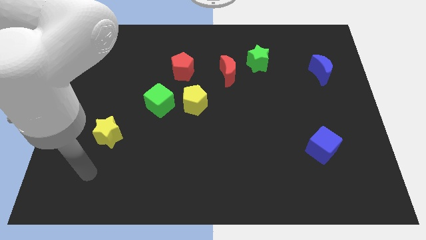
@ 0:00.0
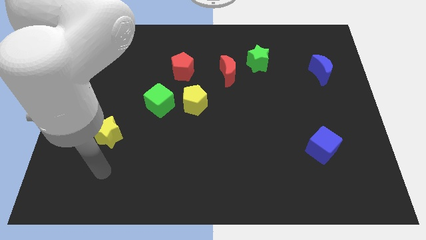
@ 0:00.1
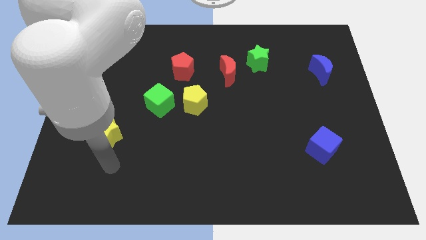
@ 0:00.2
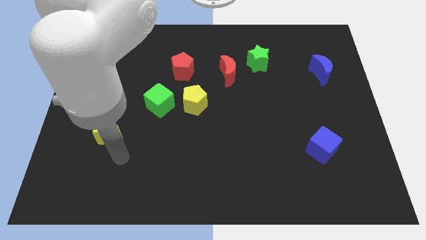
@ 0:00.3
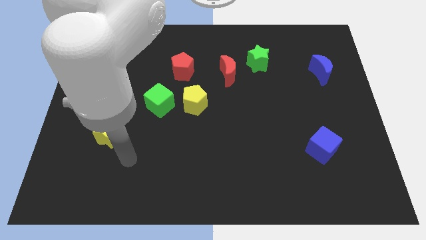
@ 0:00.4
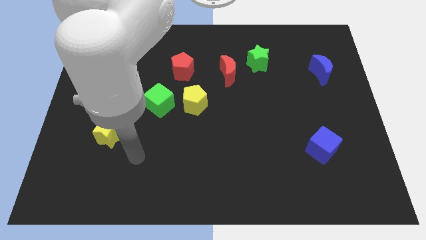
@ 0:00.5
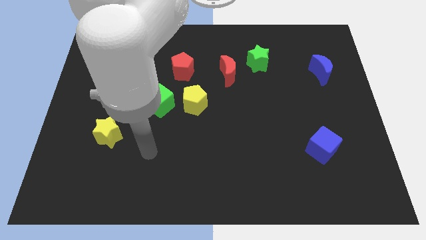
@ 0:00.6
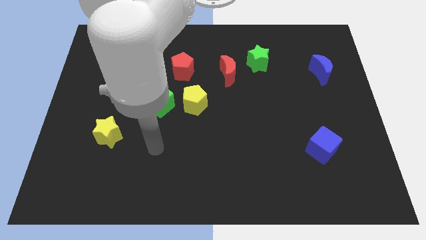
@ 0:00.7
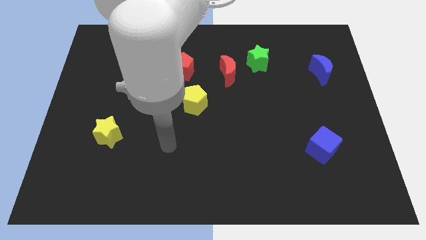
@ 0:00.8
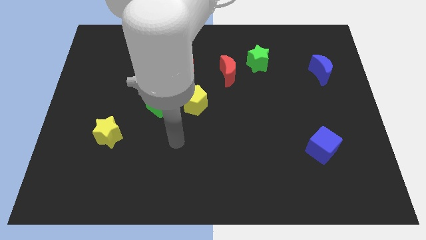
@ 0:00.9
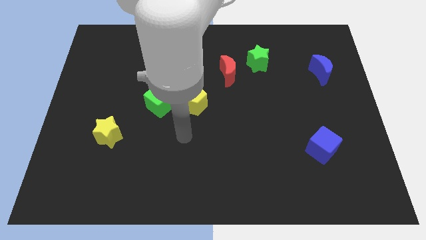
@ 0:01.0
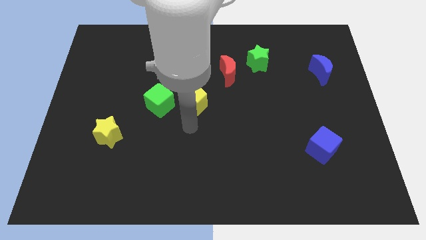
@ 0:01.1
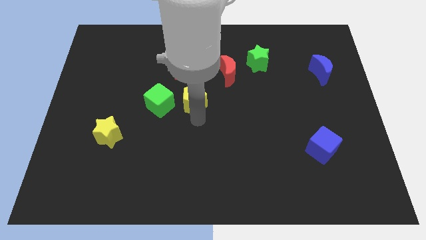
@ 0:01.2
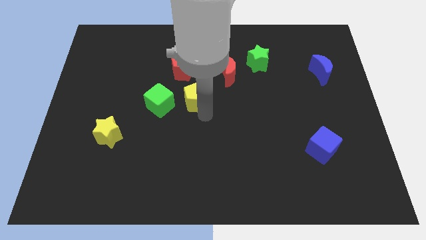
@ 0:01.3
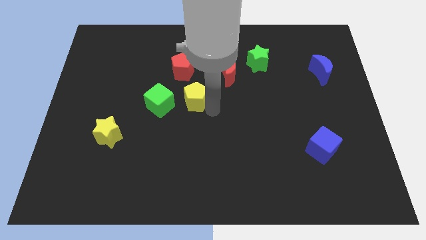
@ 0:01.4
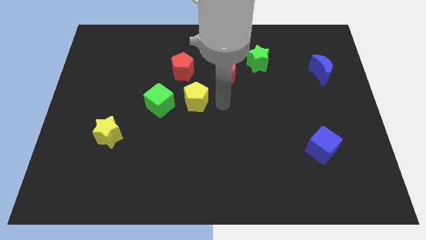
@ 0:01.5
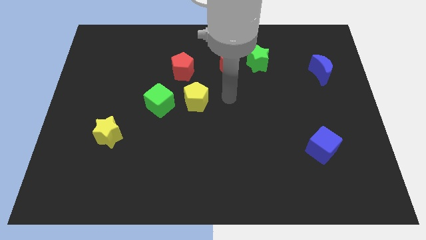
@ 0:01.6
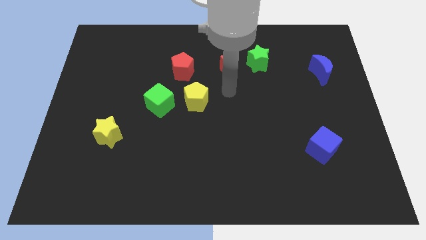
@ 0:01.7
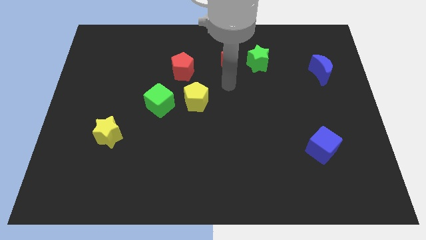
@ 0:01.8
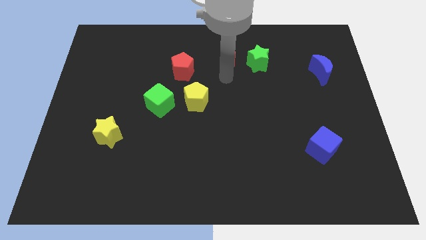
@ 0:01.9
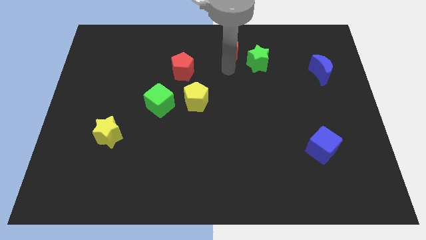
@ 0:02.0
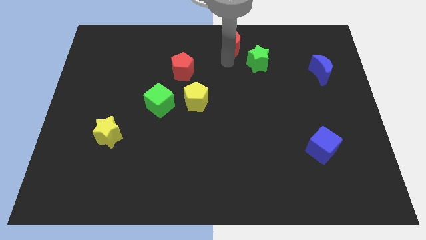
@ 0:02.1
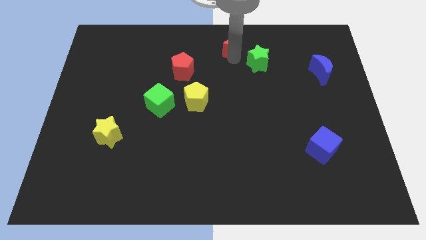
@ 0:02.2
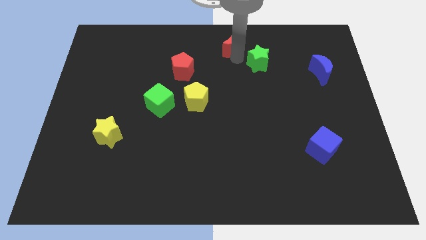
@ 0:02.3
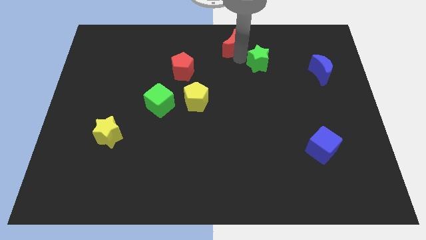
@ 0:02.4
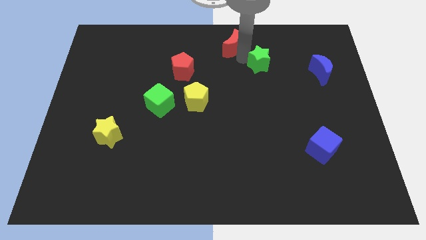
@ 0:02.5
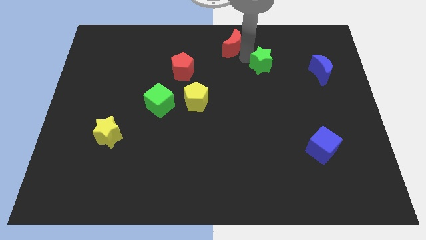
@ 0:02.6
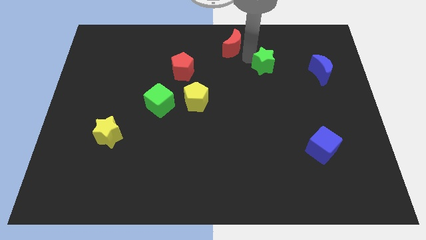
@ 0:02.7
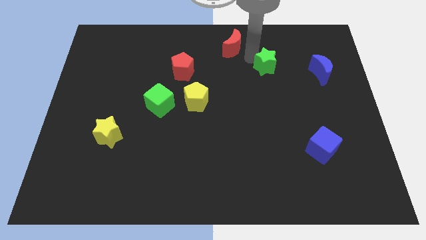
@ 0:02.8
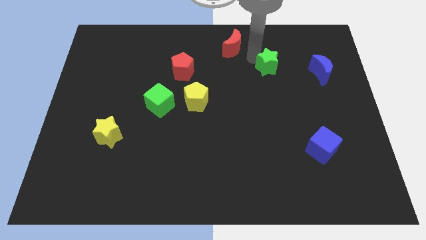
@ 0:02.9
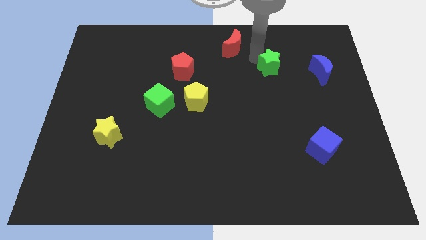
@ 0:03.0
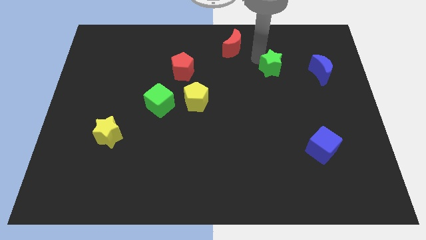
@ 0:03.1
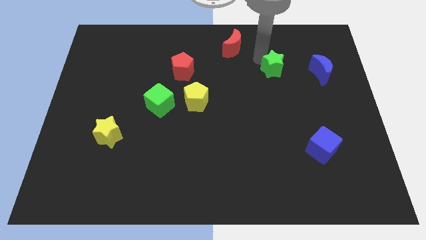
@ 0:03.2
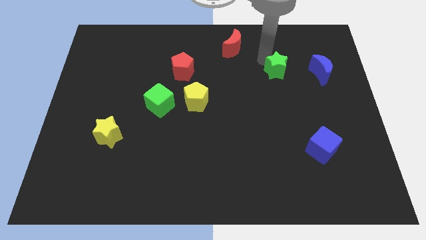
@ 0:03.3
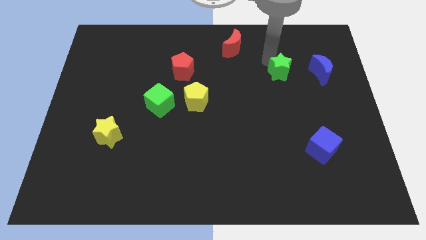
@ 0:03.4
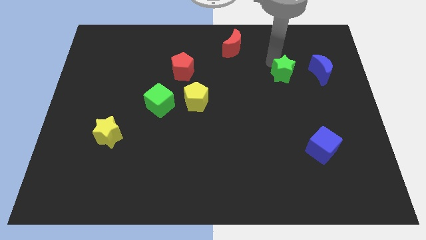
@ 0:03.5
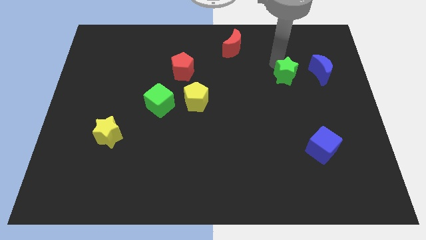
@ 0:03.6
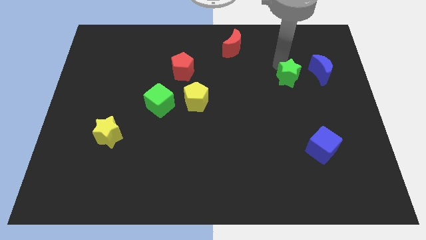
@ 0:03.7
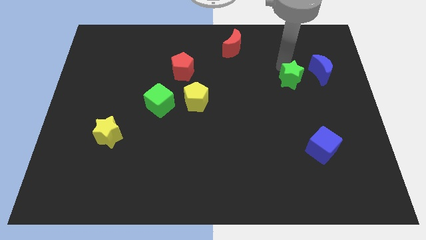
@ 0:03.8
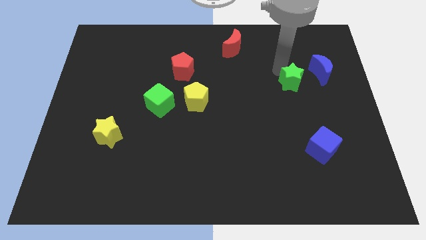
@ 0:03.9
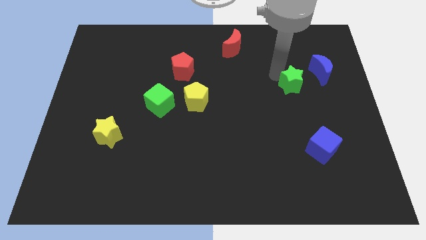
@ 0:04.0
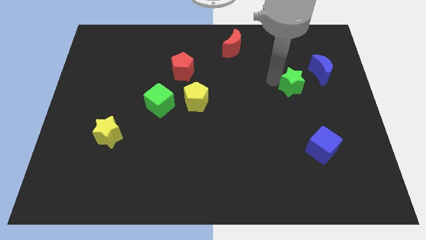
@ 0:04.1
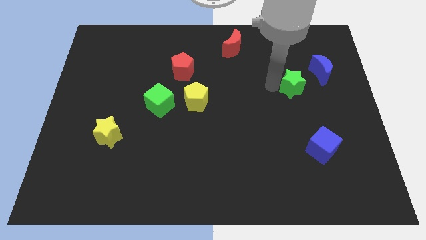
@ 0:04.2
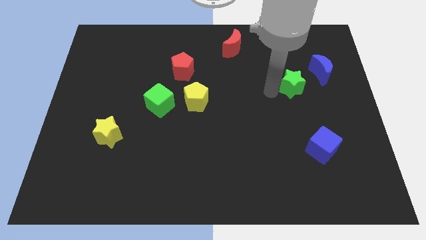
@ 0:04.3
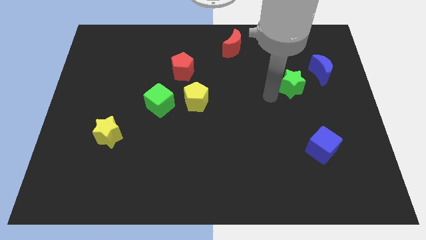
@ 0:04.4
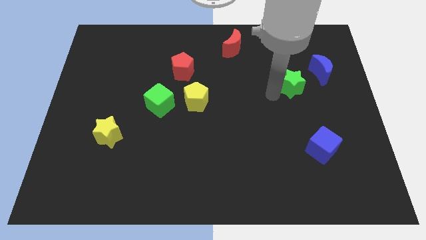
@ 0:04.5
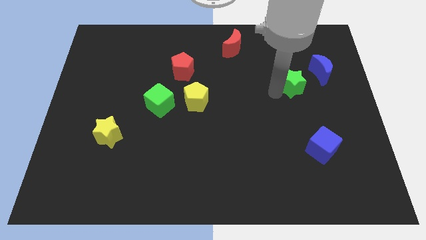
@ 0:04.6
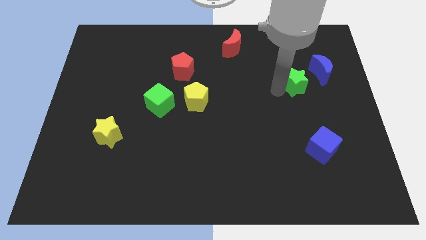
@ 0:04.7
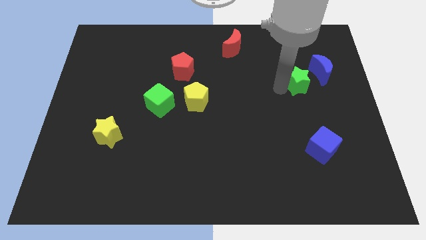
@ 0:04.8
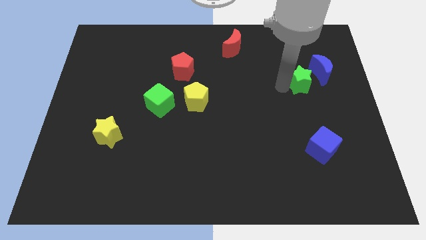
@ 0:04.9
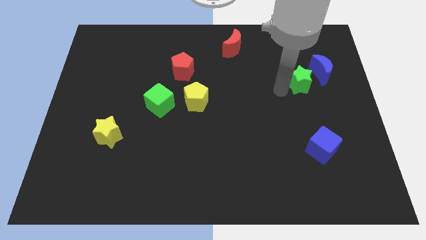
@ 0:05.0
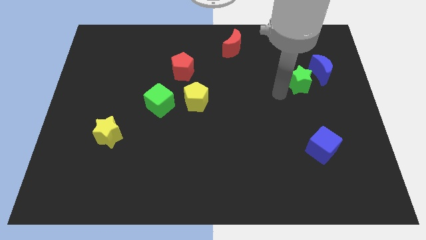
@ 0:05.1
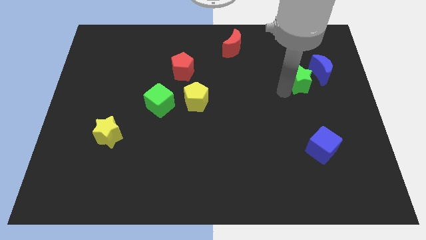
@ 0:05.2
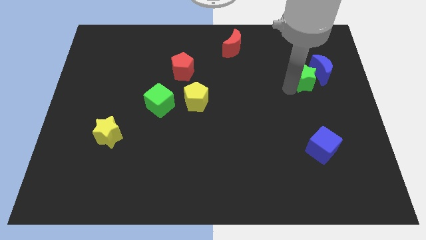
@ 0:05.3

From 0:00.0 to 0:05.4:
push the green star next to the blue moon

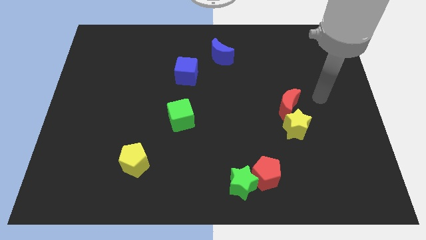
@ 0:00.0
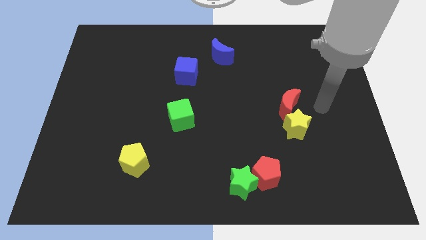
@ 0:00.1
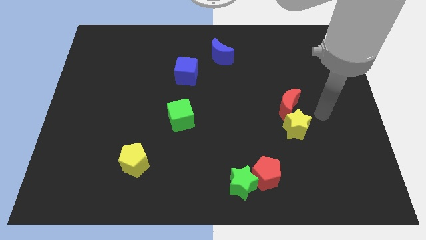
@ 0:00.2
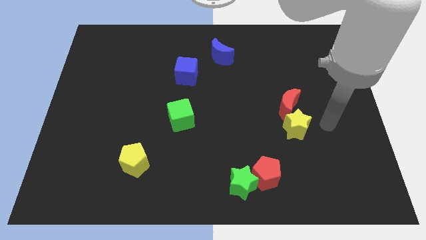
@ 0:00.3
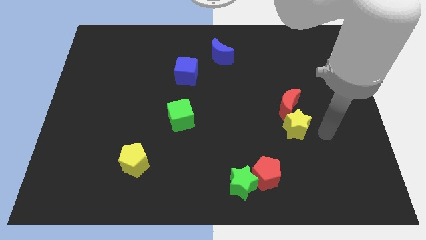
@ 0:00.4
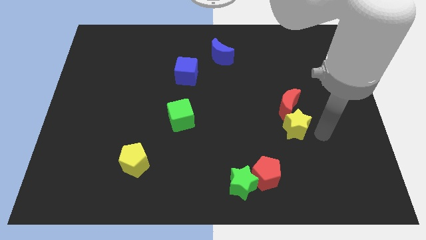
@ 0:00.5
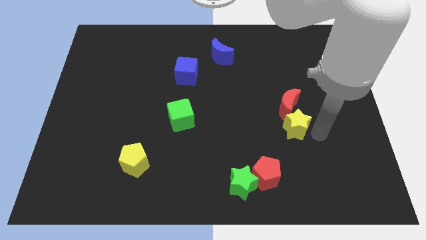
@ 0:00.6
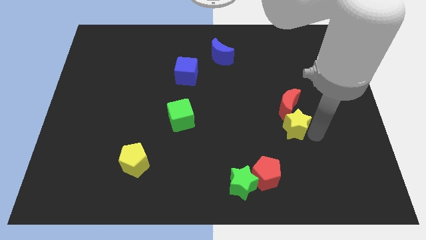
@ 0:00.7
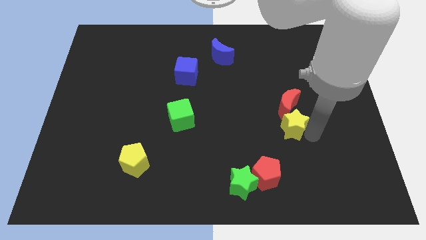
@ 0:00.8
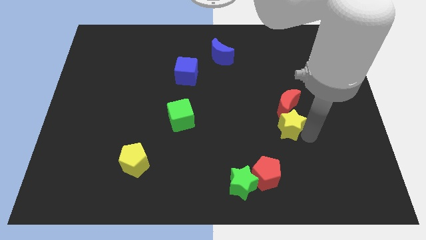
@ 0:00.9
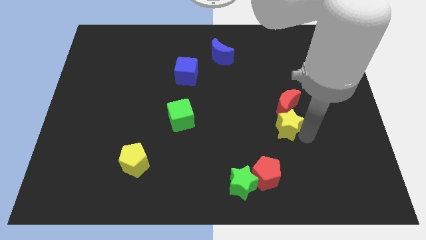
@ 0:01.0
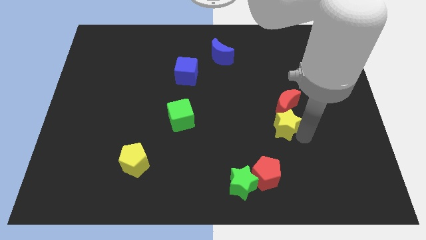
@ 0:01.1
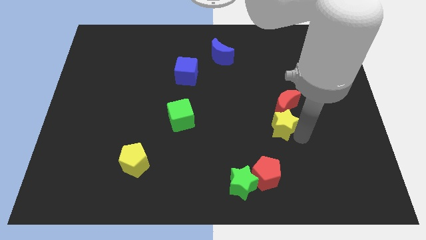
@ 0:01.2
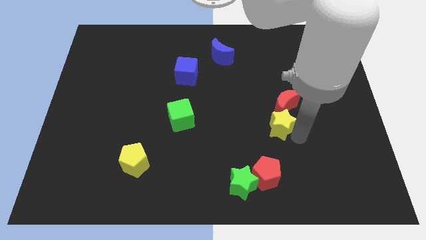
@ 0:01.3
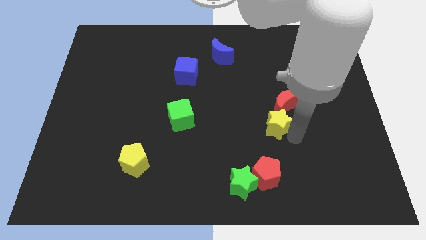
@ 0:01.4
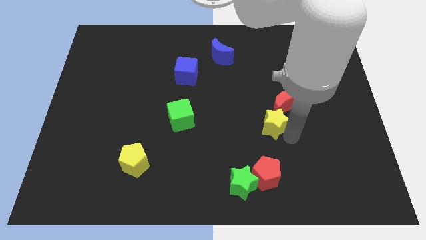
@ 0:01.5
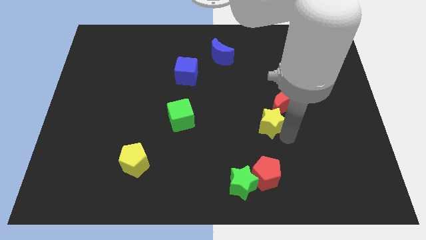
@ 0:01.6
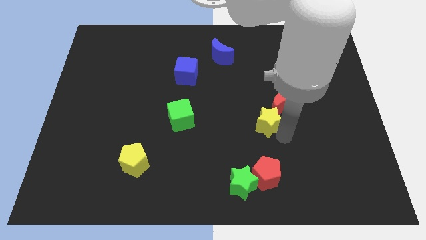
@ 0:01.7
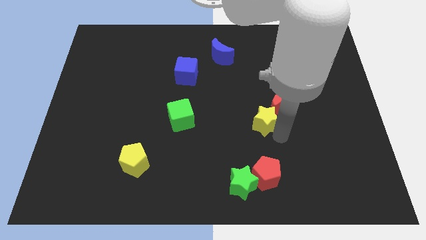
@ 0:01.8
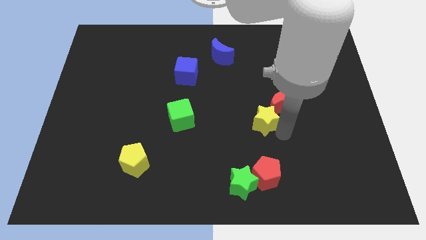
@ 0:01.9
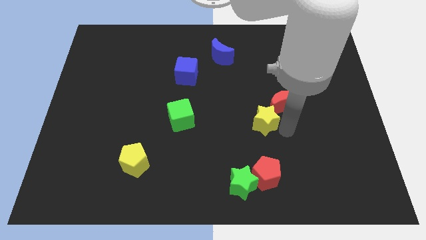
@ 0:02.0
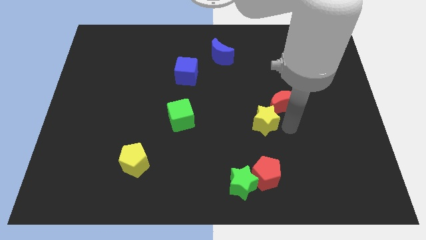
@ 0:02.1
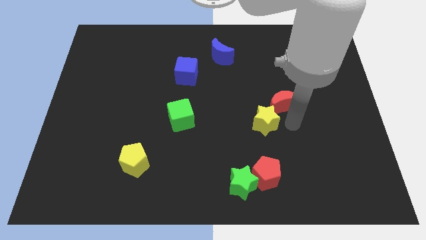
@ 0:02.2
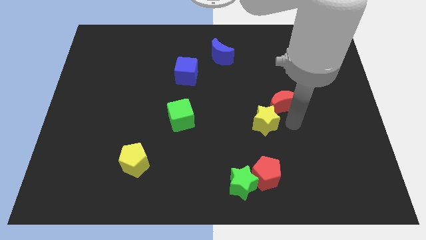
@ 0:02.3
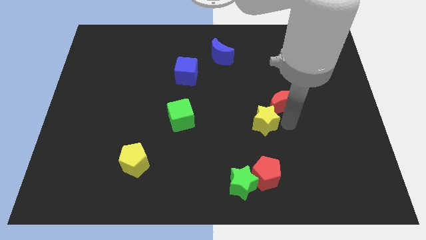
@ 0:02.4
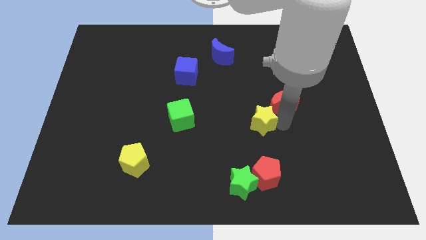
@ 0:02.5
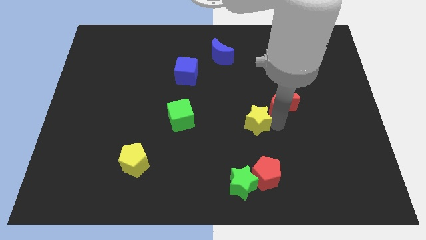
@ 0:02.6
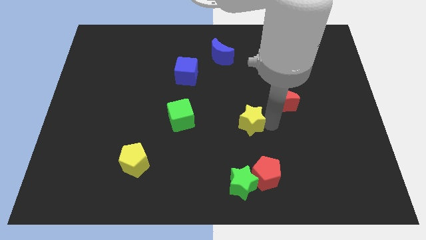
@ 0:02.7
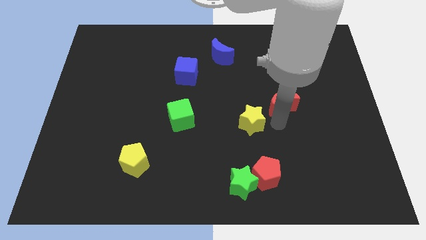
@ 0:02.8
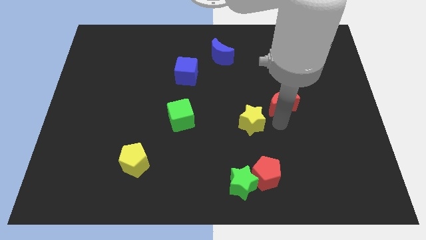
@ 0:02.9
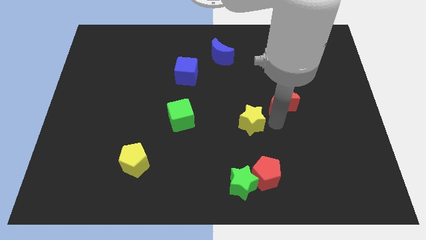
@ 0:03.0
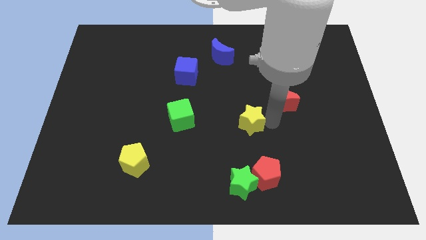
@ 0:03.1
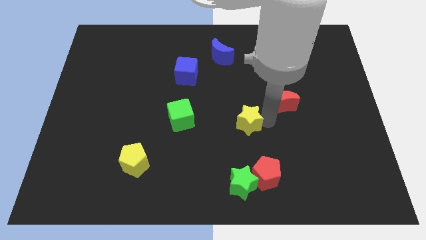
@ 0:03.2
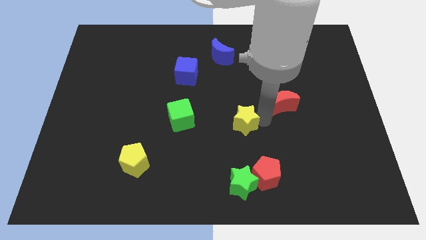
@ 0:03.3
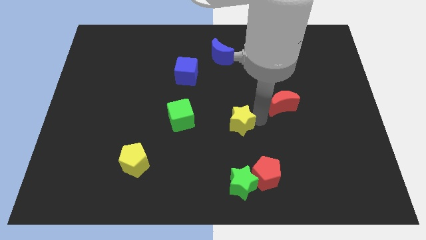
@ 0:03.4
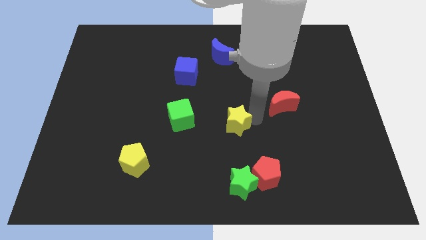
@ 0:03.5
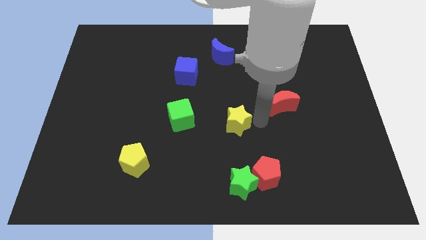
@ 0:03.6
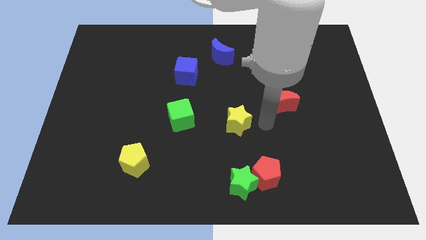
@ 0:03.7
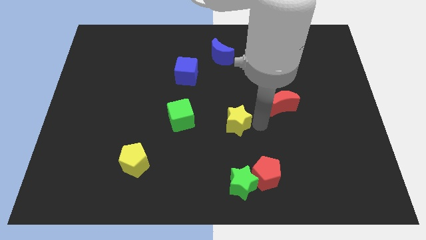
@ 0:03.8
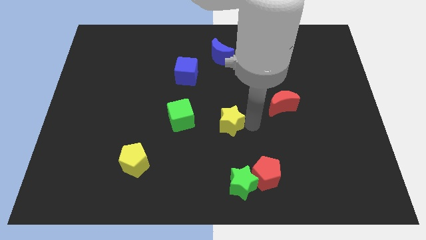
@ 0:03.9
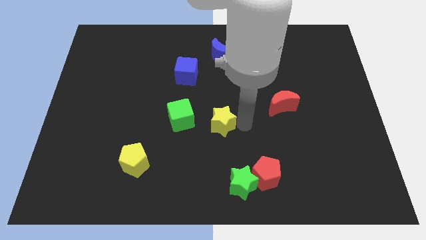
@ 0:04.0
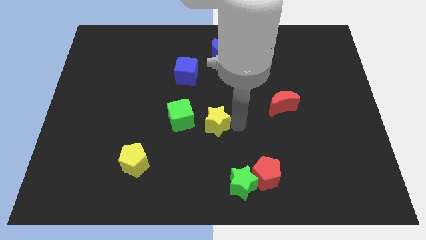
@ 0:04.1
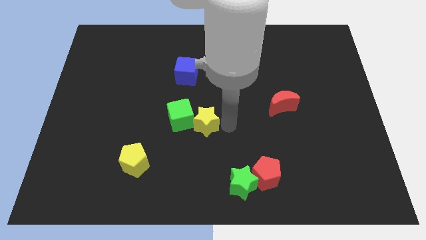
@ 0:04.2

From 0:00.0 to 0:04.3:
slide the yellow star close to the green cube
